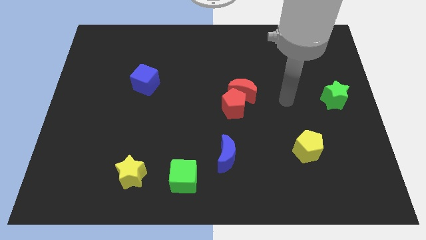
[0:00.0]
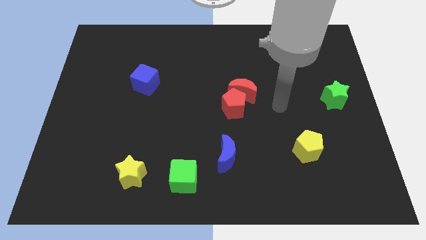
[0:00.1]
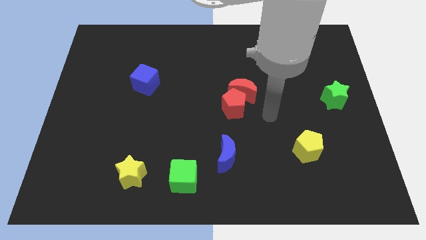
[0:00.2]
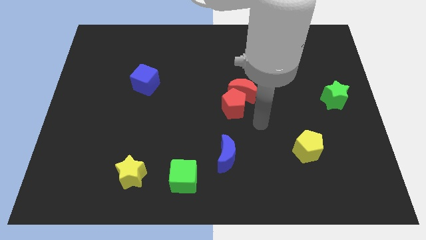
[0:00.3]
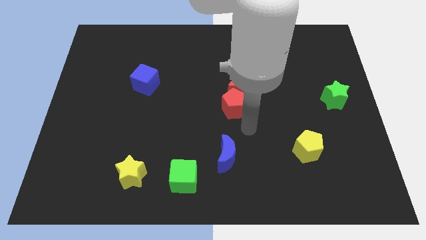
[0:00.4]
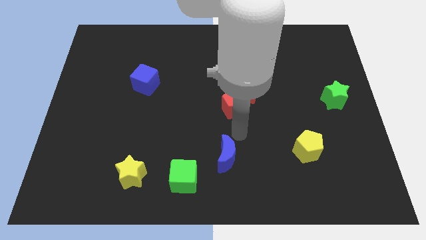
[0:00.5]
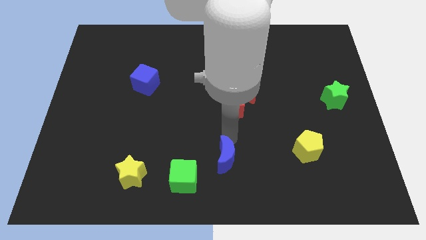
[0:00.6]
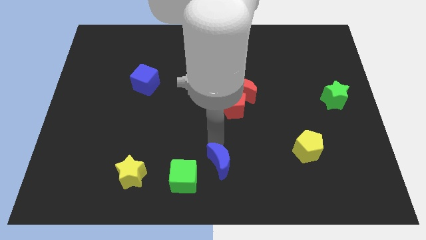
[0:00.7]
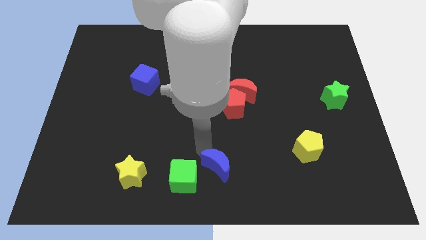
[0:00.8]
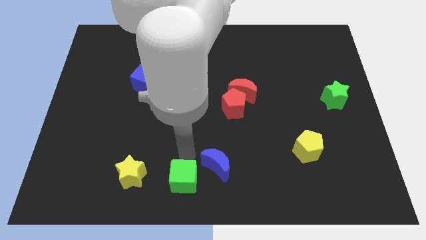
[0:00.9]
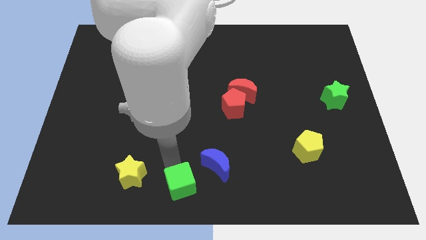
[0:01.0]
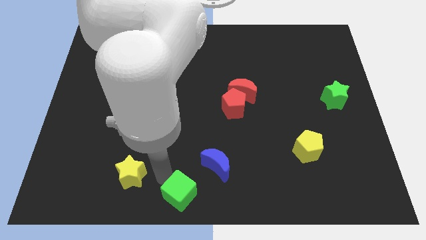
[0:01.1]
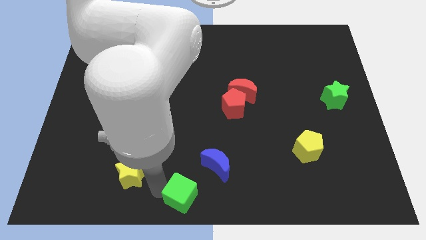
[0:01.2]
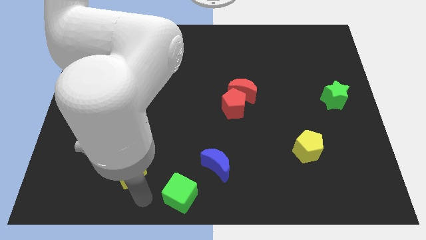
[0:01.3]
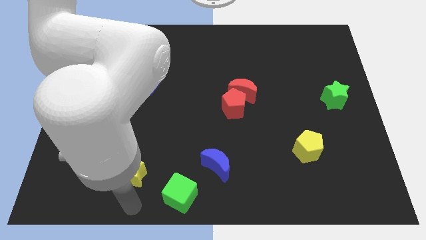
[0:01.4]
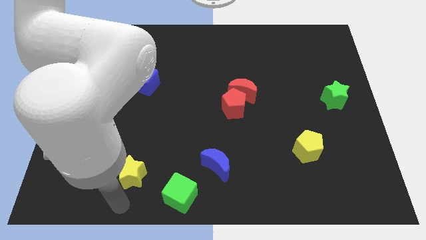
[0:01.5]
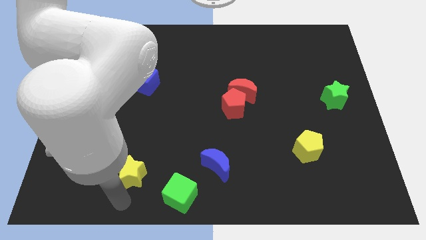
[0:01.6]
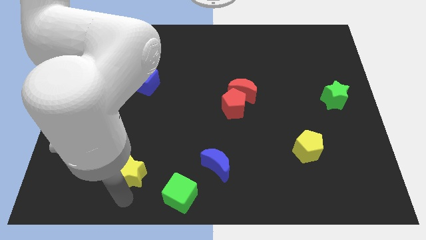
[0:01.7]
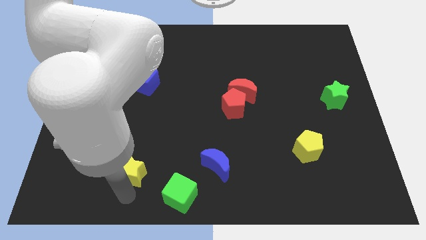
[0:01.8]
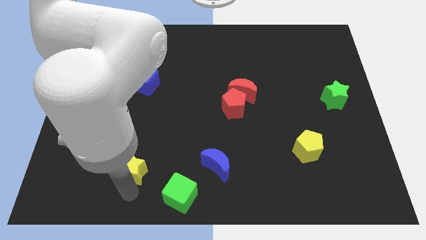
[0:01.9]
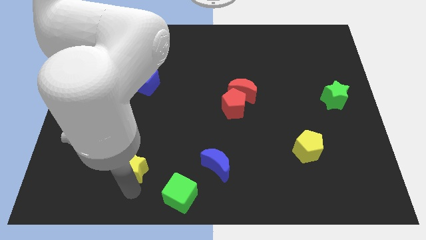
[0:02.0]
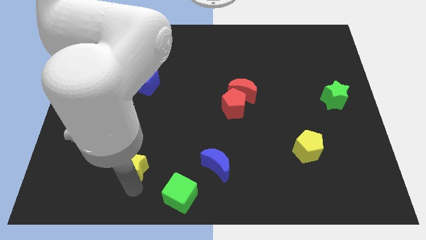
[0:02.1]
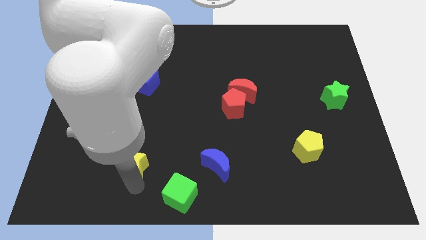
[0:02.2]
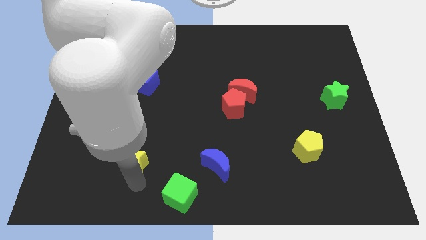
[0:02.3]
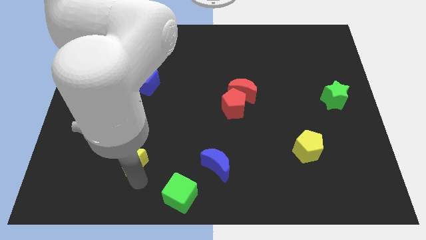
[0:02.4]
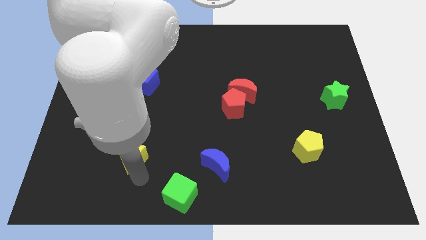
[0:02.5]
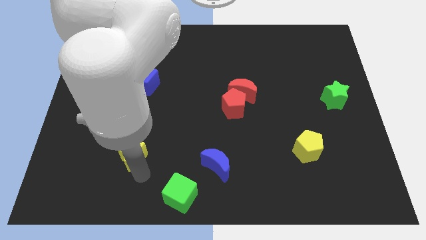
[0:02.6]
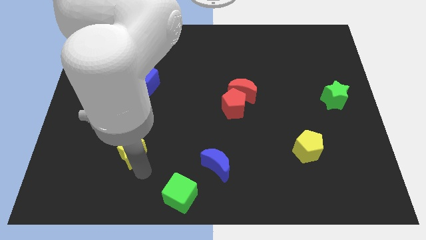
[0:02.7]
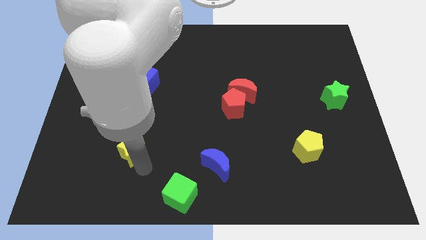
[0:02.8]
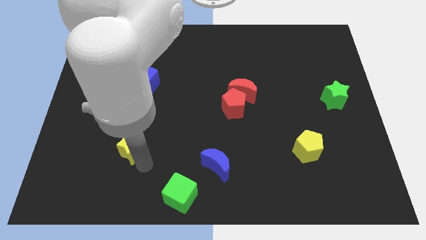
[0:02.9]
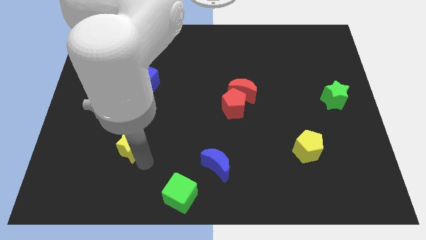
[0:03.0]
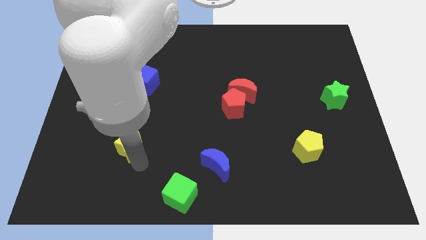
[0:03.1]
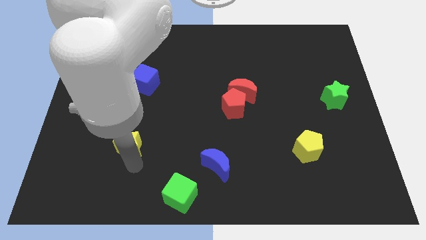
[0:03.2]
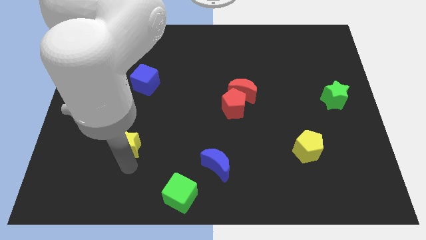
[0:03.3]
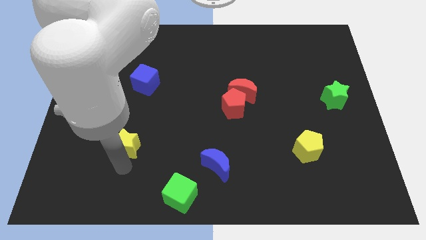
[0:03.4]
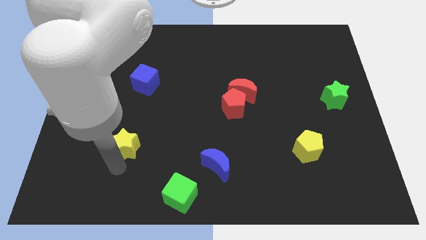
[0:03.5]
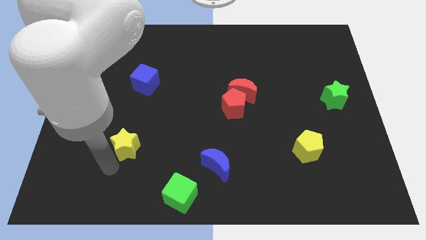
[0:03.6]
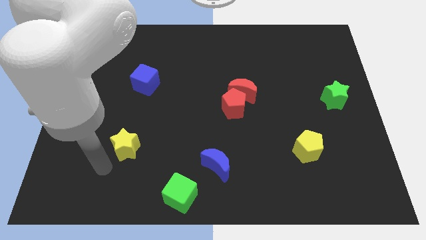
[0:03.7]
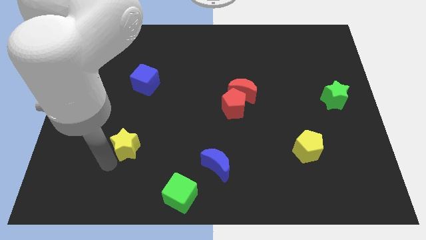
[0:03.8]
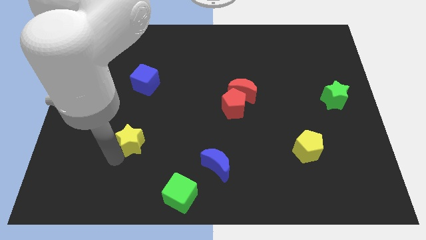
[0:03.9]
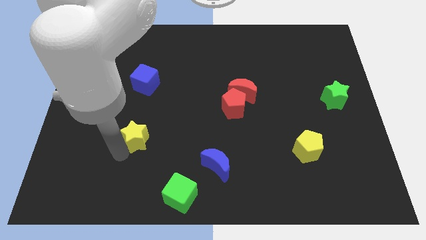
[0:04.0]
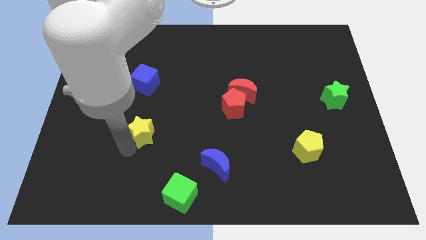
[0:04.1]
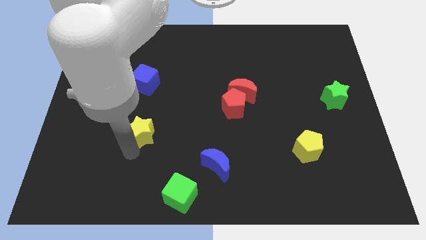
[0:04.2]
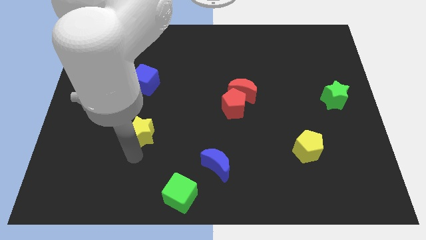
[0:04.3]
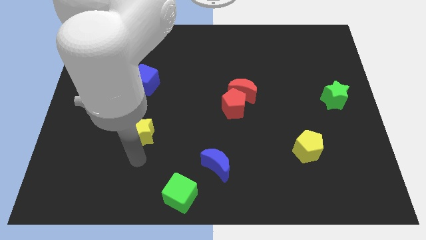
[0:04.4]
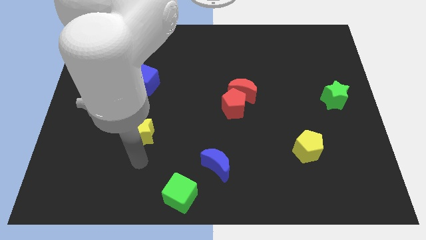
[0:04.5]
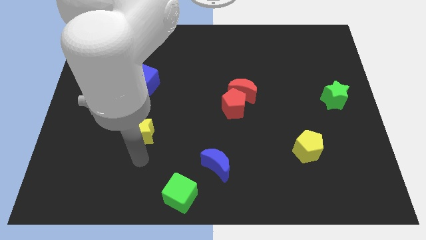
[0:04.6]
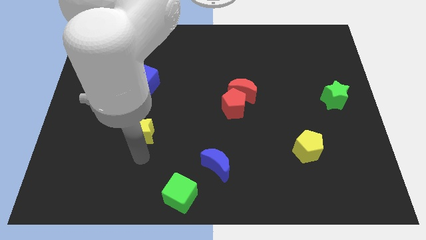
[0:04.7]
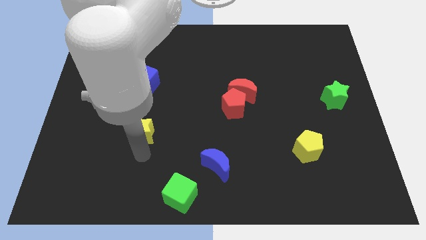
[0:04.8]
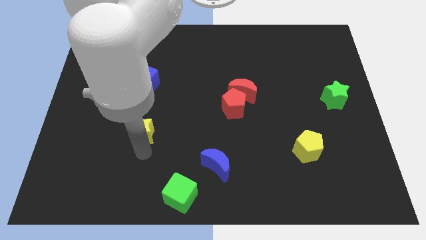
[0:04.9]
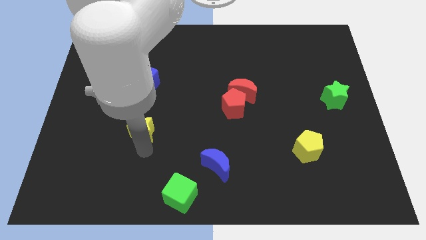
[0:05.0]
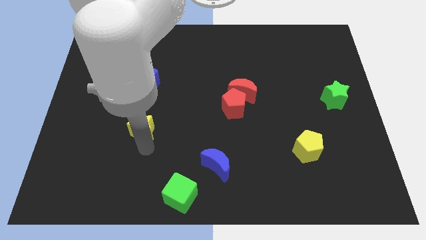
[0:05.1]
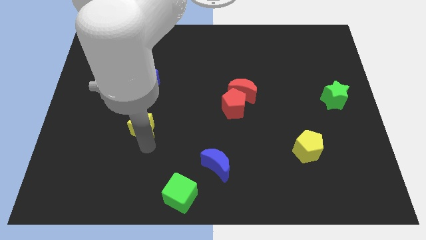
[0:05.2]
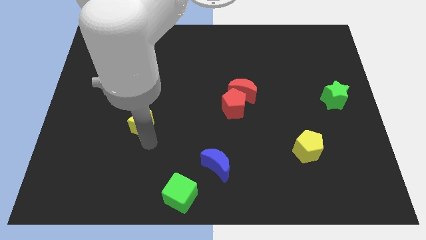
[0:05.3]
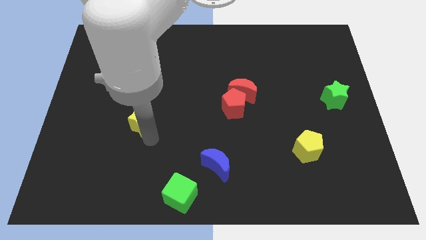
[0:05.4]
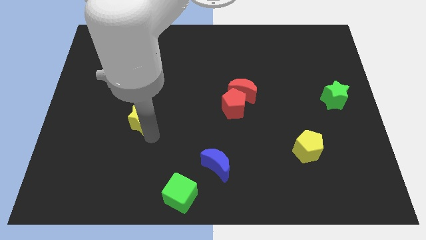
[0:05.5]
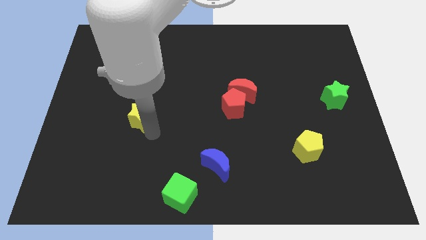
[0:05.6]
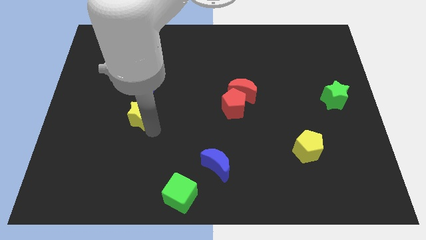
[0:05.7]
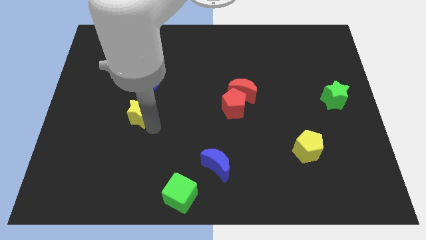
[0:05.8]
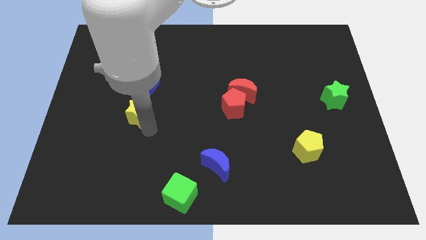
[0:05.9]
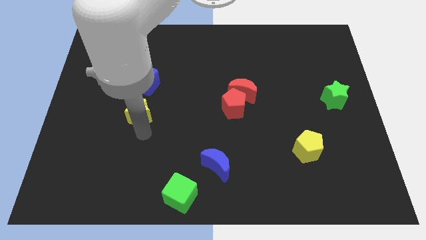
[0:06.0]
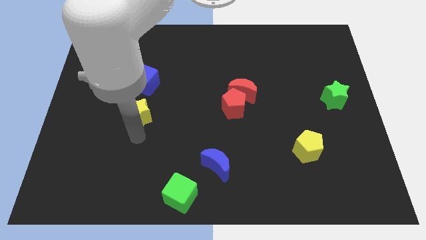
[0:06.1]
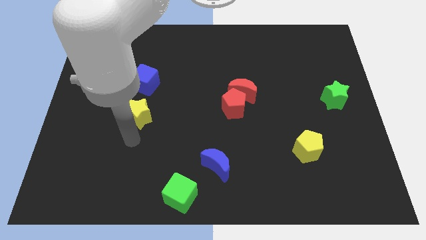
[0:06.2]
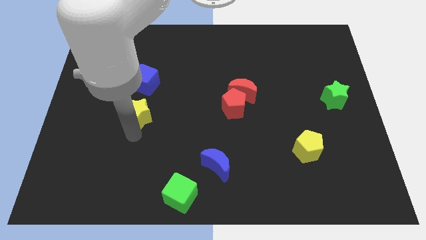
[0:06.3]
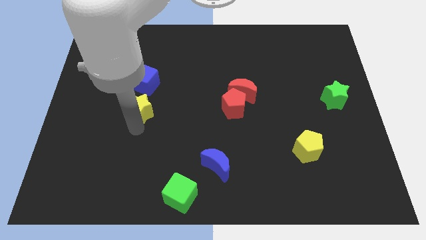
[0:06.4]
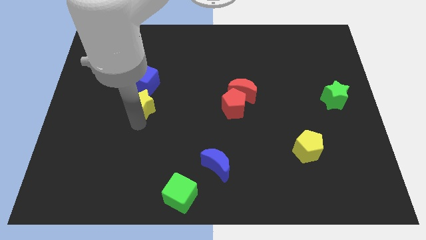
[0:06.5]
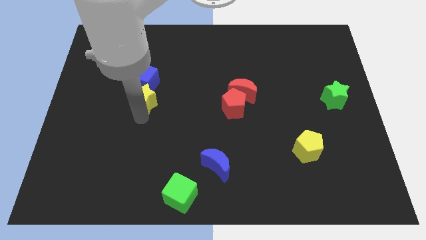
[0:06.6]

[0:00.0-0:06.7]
move the yellow star close to the blue cube

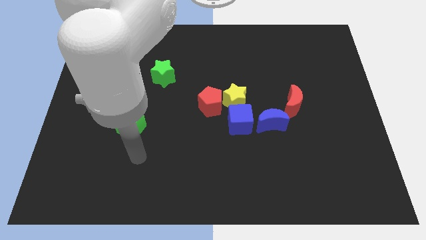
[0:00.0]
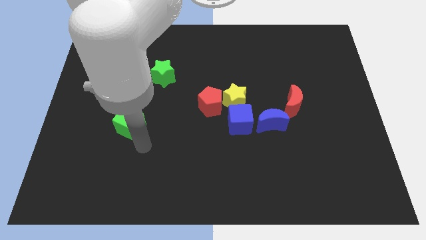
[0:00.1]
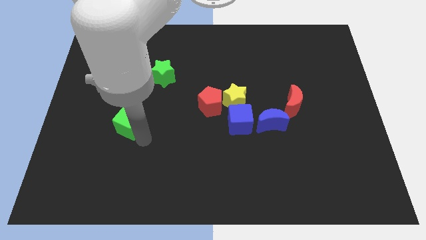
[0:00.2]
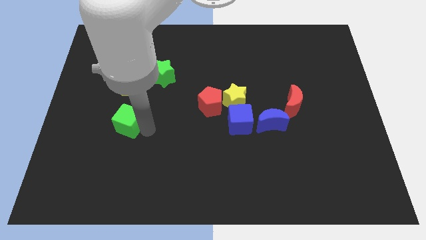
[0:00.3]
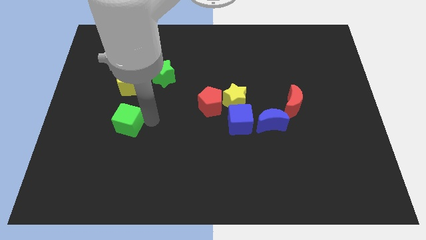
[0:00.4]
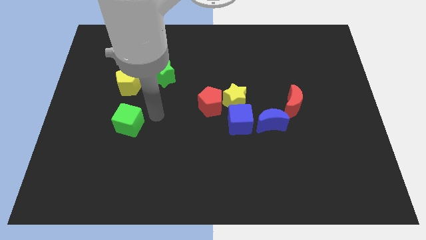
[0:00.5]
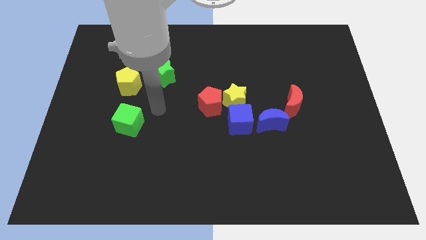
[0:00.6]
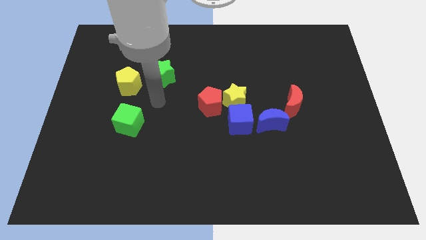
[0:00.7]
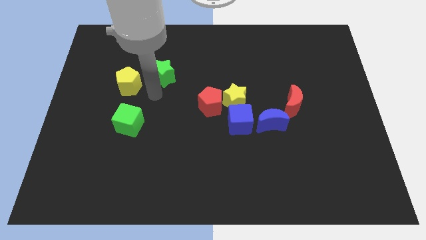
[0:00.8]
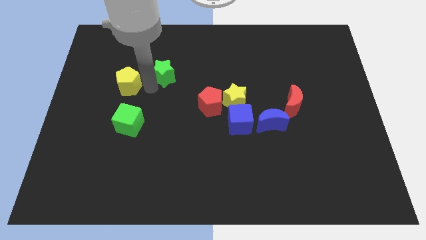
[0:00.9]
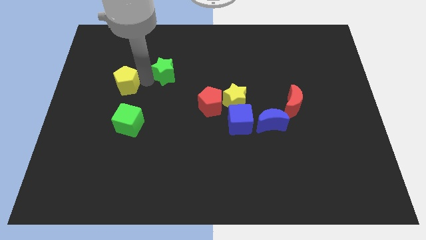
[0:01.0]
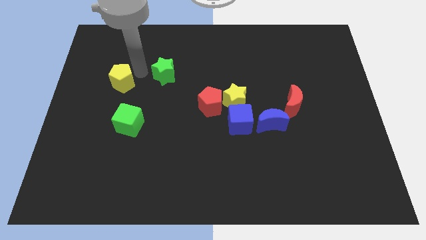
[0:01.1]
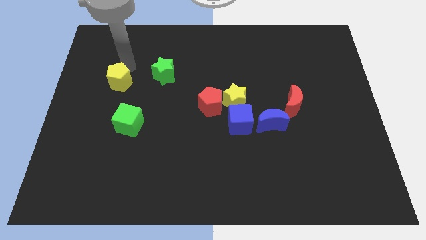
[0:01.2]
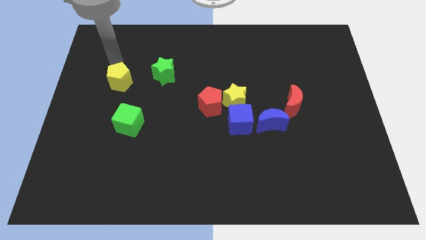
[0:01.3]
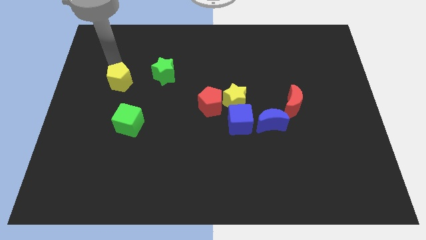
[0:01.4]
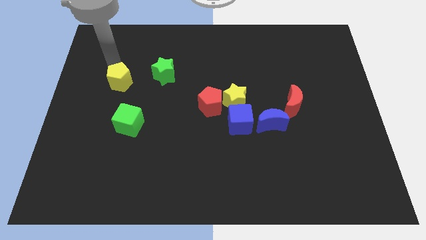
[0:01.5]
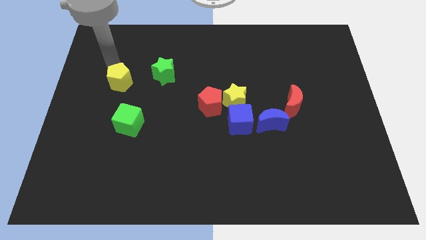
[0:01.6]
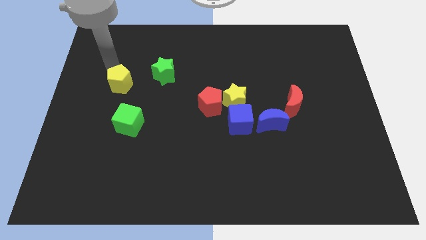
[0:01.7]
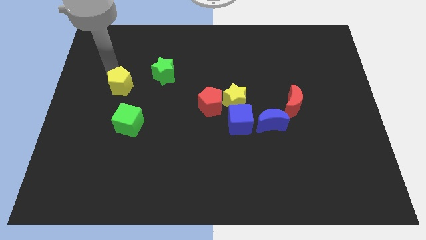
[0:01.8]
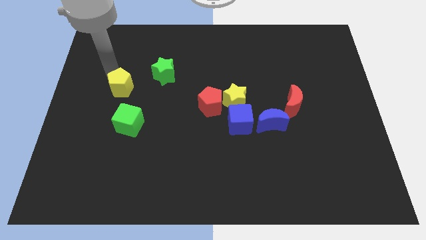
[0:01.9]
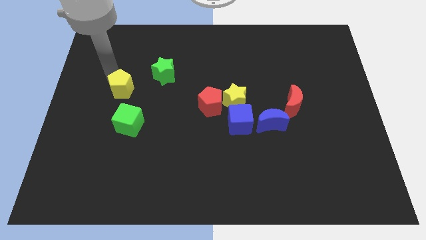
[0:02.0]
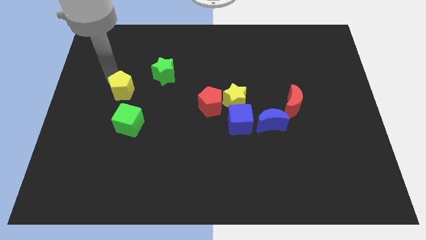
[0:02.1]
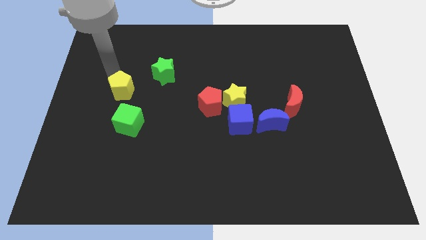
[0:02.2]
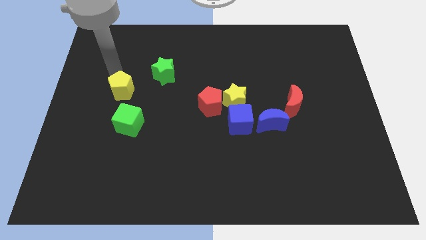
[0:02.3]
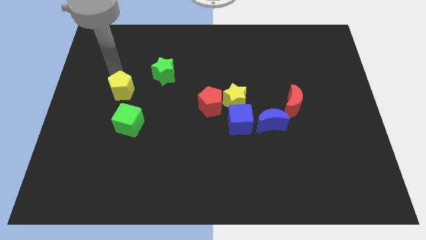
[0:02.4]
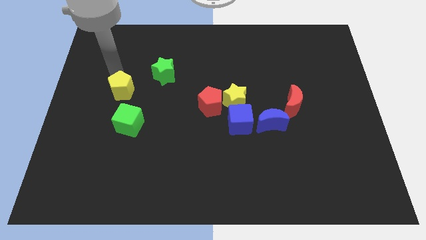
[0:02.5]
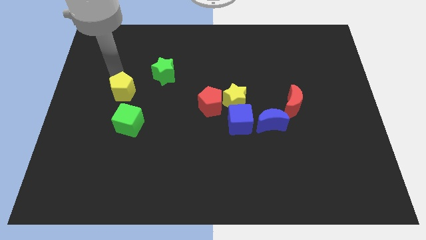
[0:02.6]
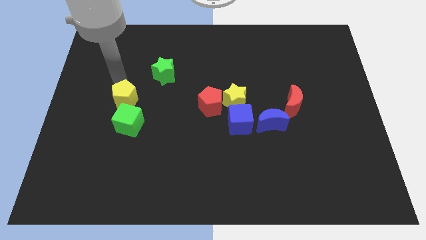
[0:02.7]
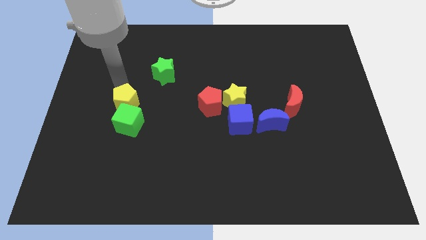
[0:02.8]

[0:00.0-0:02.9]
move the yellow pentagon next to the green cube
